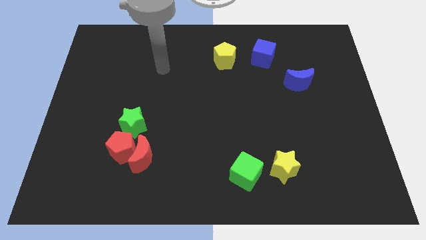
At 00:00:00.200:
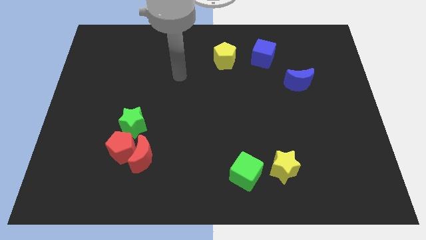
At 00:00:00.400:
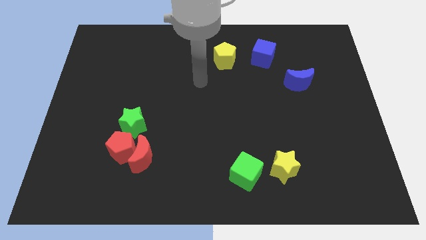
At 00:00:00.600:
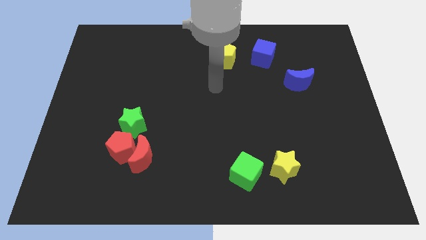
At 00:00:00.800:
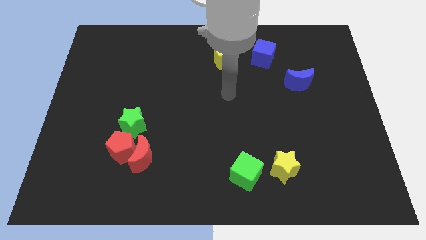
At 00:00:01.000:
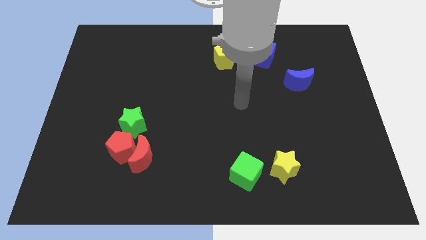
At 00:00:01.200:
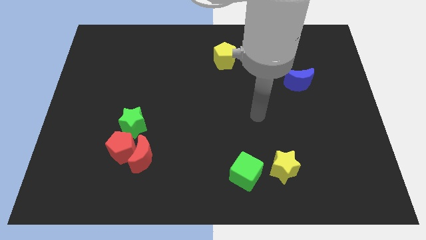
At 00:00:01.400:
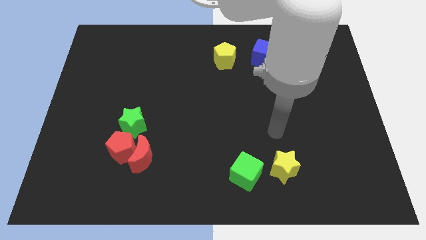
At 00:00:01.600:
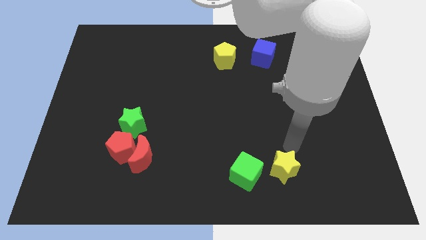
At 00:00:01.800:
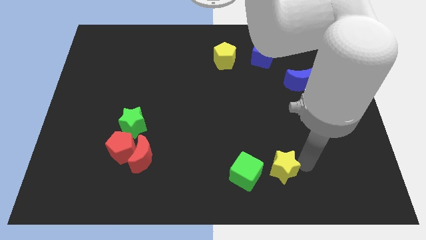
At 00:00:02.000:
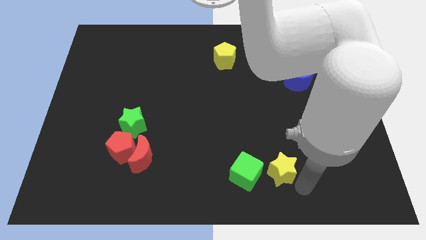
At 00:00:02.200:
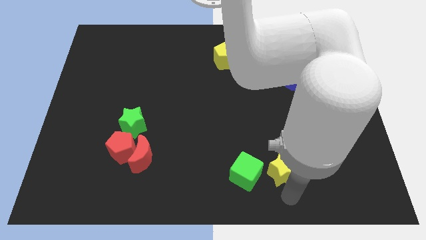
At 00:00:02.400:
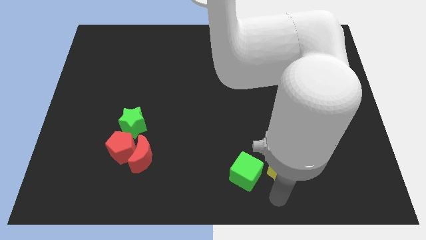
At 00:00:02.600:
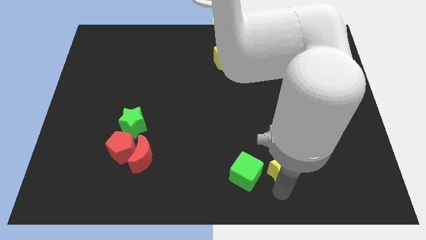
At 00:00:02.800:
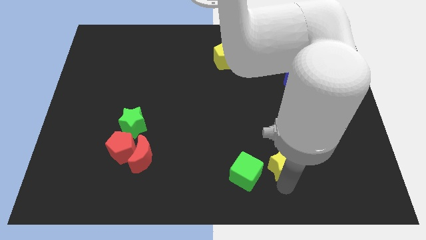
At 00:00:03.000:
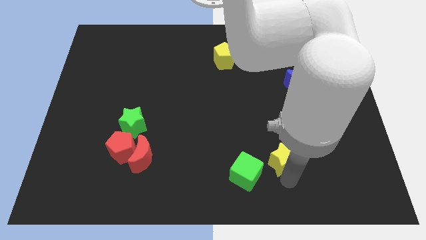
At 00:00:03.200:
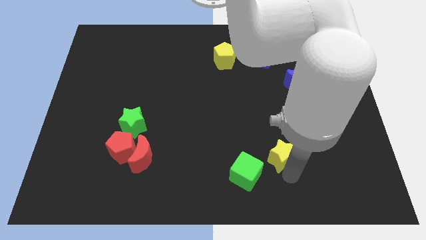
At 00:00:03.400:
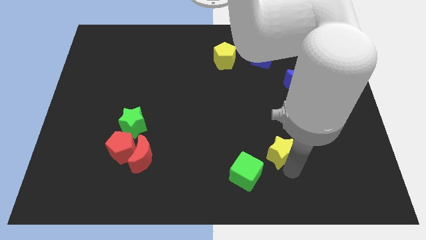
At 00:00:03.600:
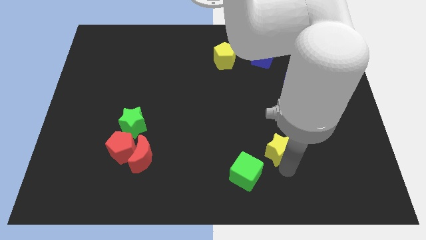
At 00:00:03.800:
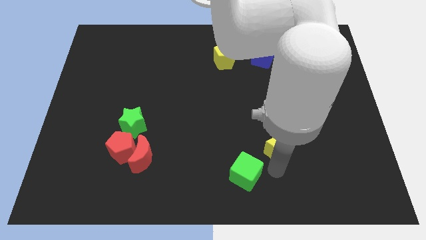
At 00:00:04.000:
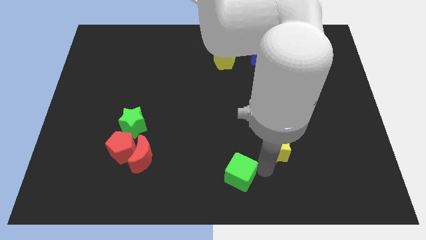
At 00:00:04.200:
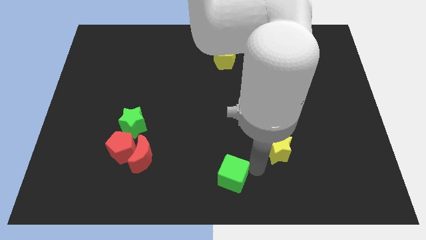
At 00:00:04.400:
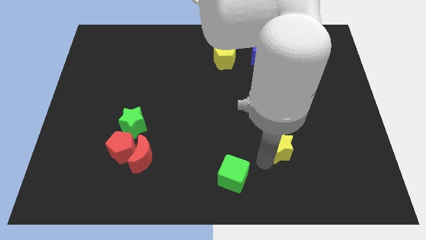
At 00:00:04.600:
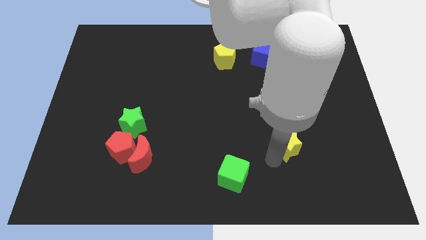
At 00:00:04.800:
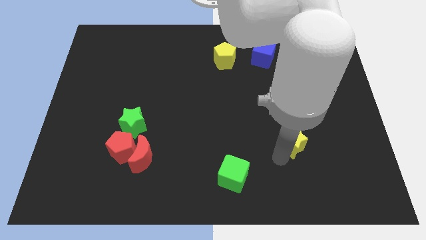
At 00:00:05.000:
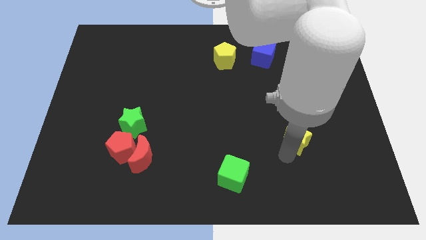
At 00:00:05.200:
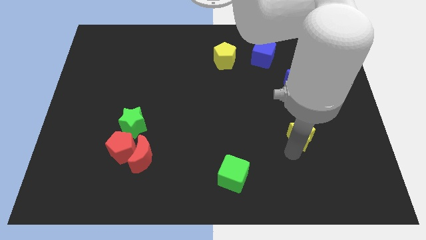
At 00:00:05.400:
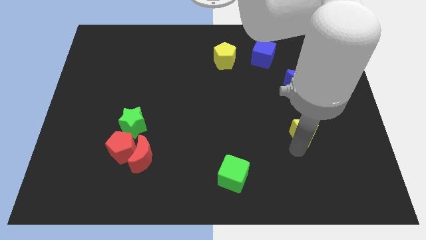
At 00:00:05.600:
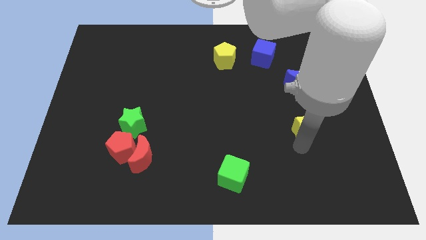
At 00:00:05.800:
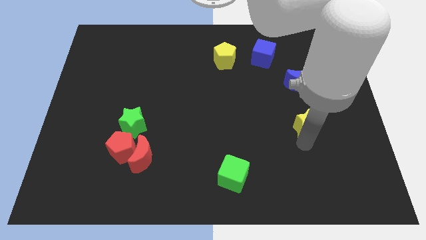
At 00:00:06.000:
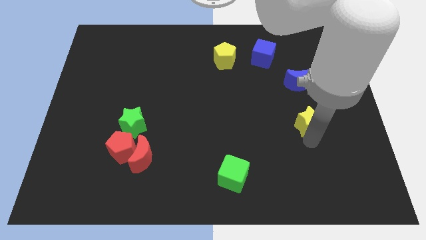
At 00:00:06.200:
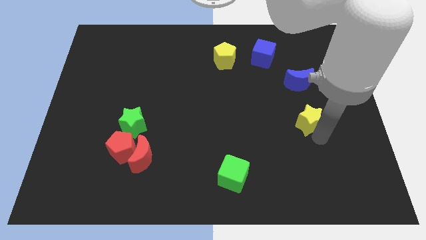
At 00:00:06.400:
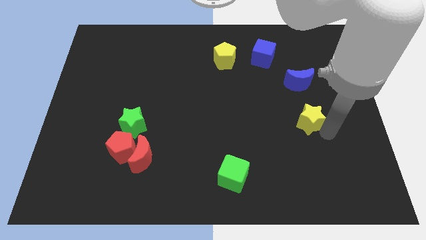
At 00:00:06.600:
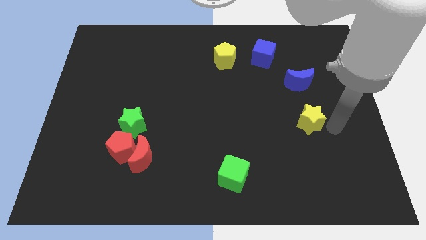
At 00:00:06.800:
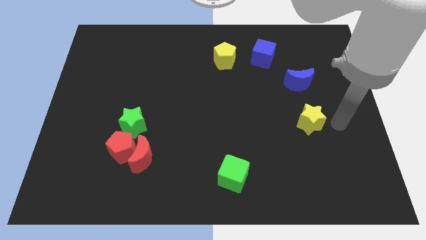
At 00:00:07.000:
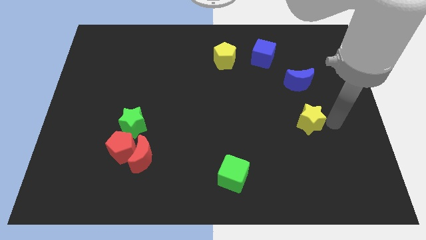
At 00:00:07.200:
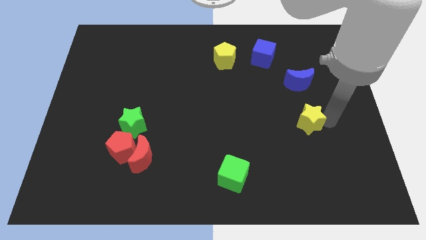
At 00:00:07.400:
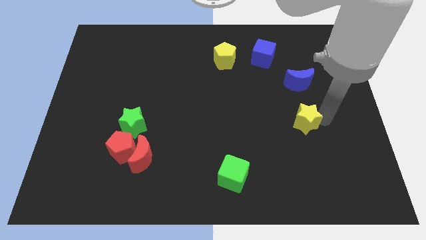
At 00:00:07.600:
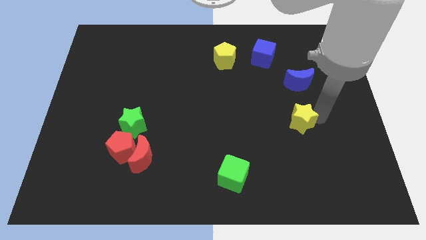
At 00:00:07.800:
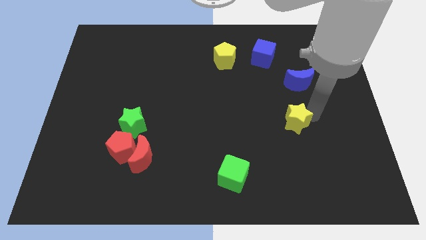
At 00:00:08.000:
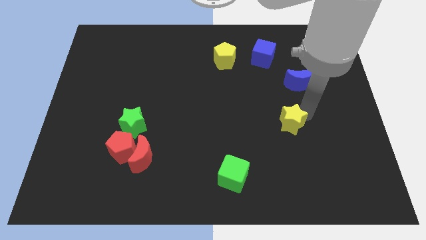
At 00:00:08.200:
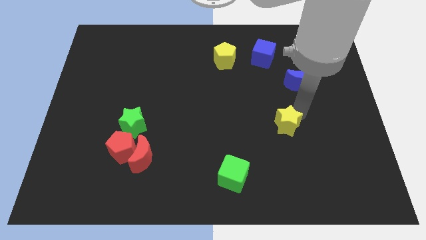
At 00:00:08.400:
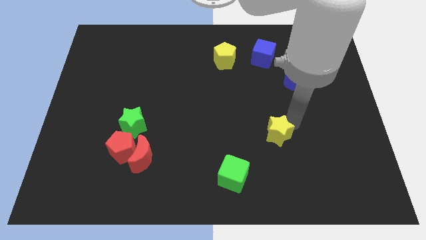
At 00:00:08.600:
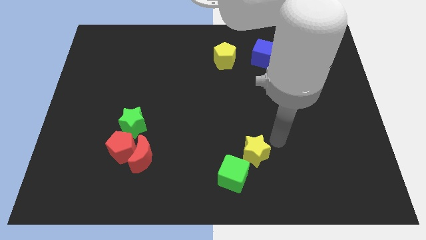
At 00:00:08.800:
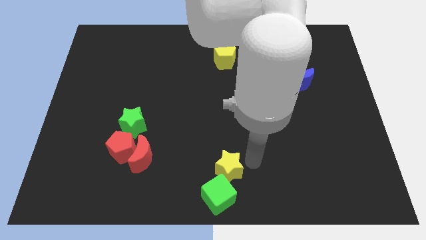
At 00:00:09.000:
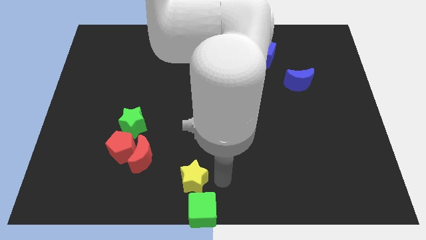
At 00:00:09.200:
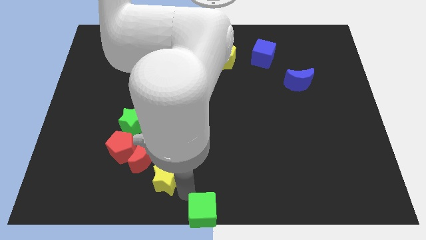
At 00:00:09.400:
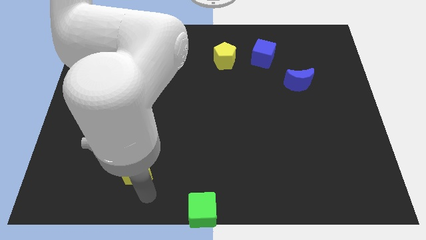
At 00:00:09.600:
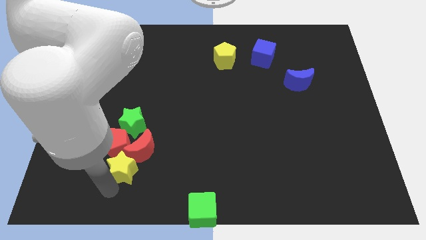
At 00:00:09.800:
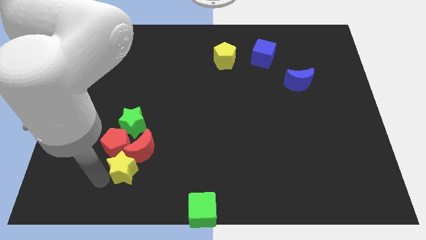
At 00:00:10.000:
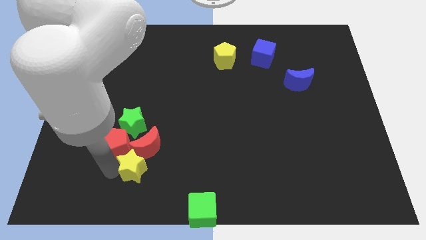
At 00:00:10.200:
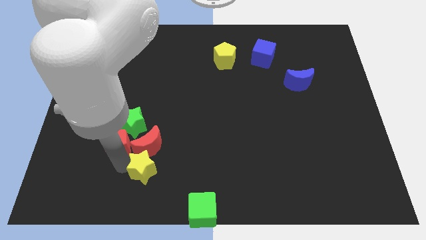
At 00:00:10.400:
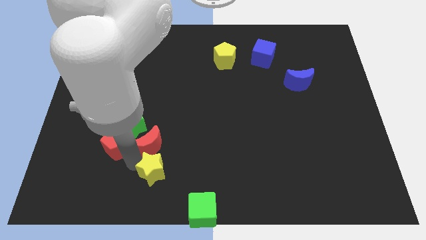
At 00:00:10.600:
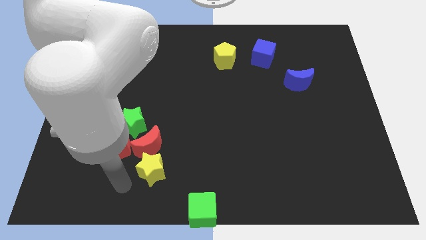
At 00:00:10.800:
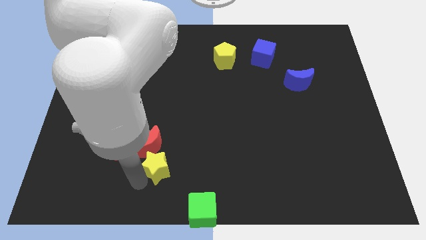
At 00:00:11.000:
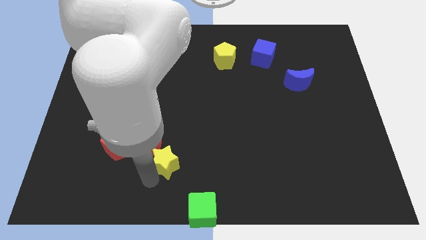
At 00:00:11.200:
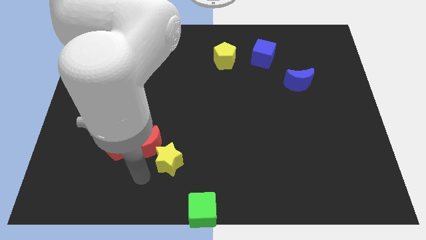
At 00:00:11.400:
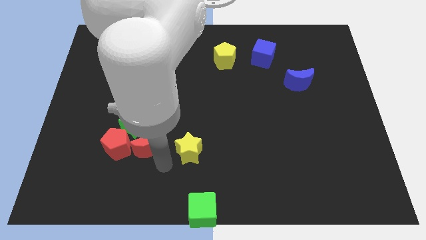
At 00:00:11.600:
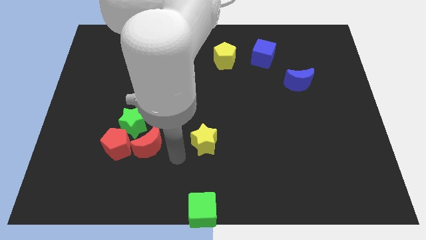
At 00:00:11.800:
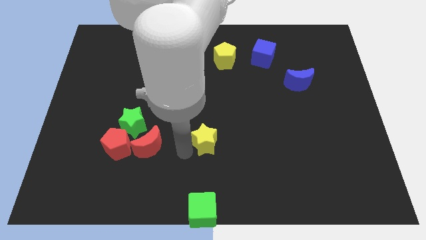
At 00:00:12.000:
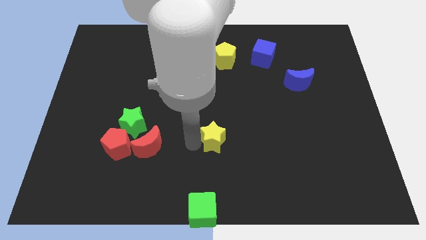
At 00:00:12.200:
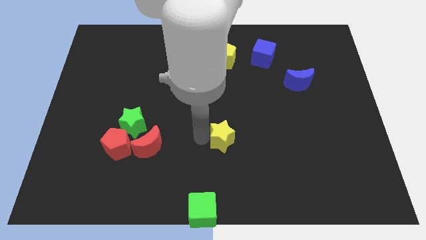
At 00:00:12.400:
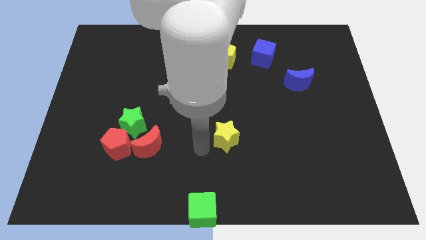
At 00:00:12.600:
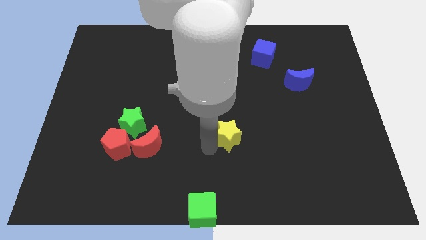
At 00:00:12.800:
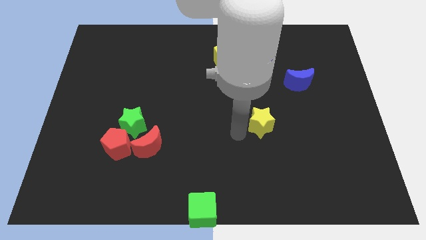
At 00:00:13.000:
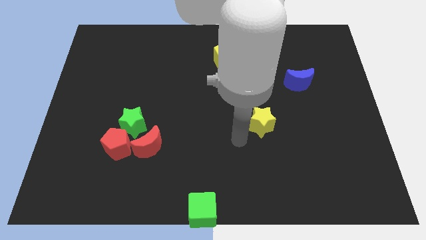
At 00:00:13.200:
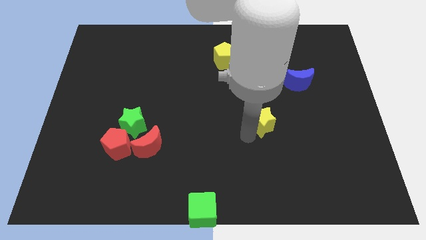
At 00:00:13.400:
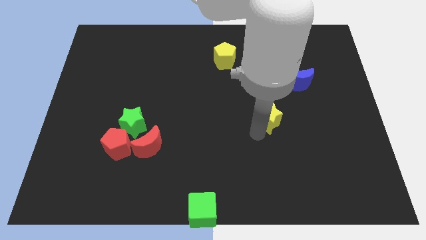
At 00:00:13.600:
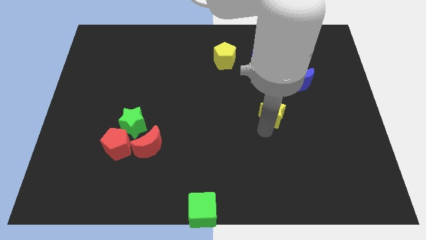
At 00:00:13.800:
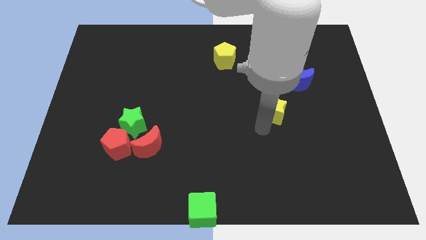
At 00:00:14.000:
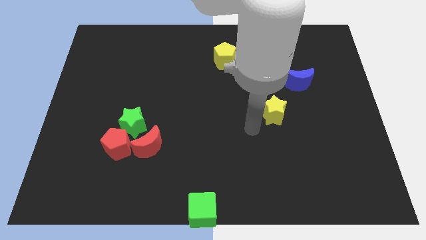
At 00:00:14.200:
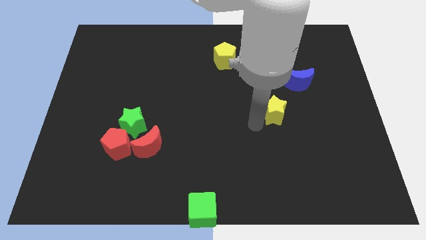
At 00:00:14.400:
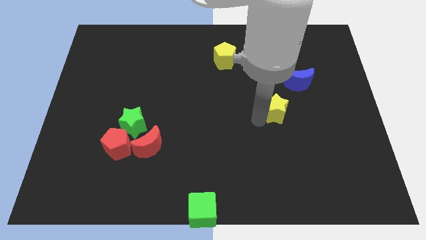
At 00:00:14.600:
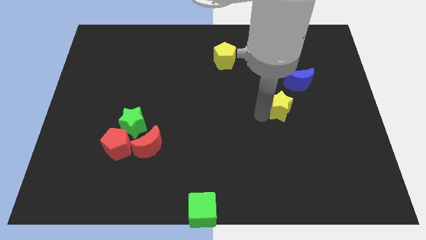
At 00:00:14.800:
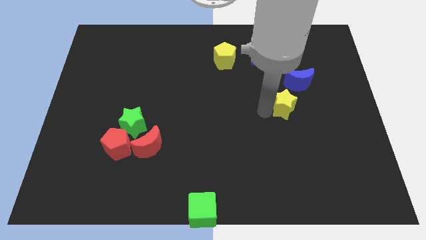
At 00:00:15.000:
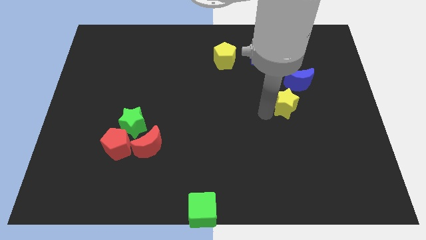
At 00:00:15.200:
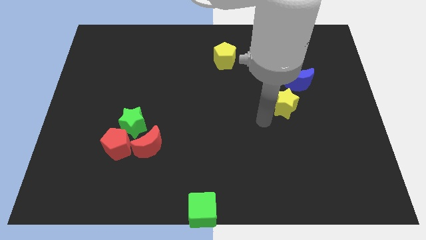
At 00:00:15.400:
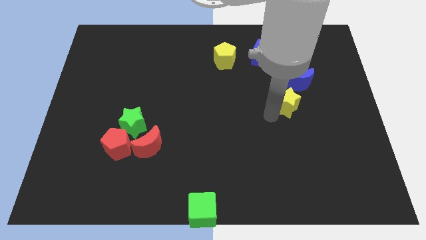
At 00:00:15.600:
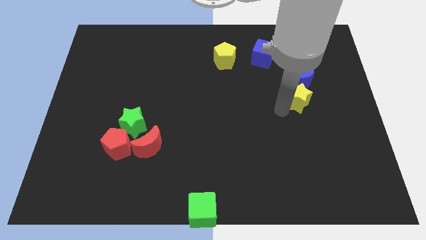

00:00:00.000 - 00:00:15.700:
move the yellow star to the blue moon
